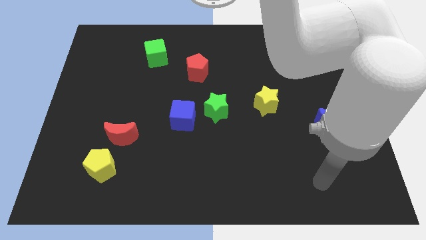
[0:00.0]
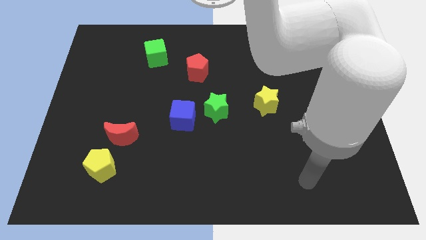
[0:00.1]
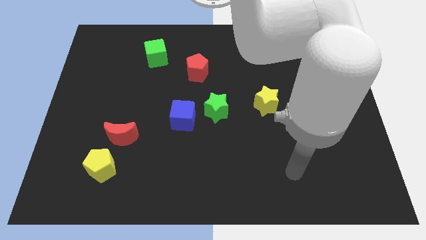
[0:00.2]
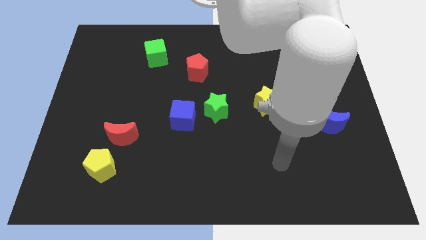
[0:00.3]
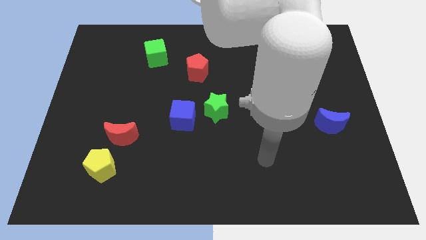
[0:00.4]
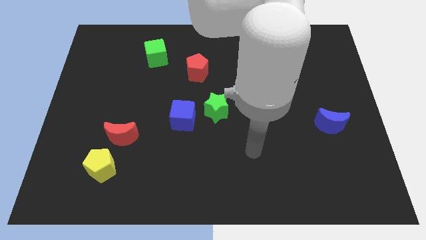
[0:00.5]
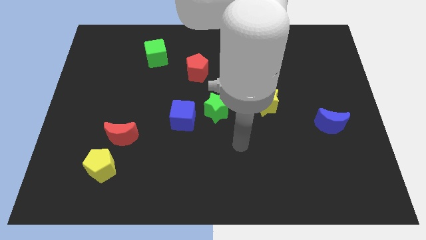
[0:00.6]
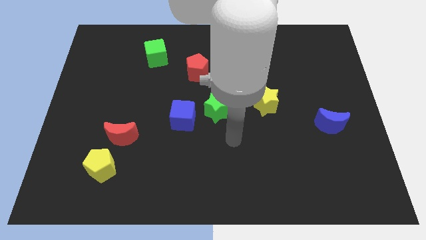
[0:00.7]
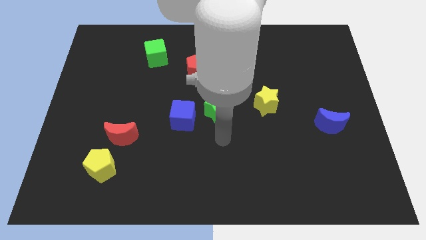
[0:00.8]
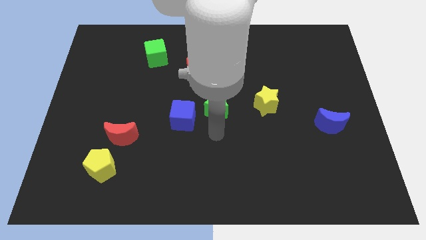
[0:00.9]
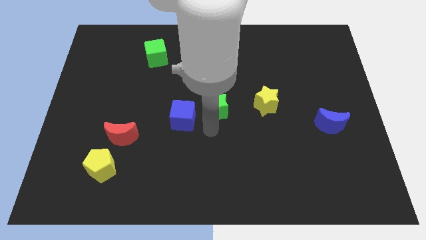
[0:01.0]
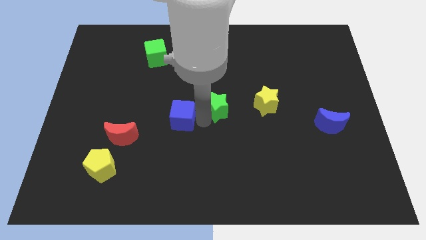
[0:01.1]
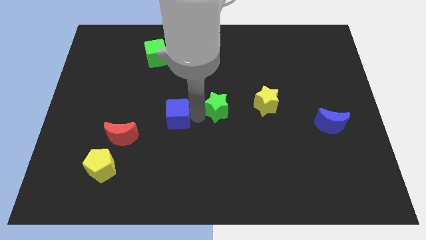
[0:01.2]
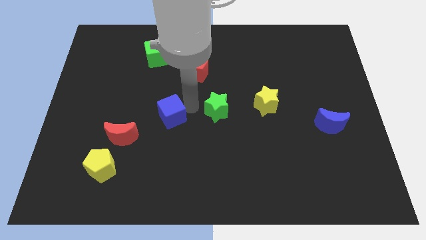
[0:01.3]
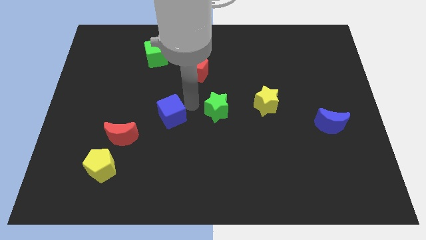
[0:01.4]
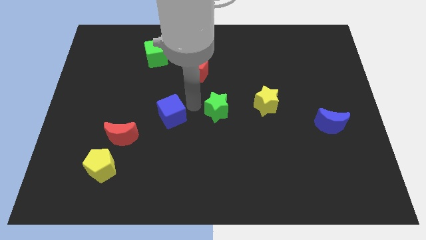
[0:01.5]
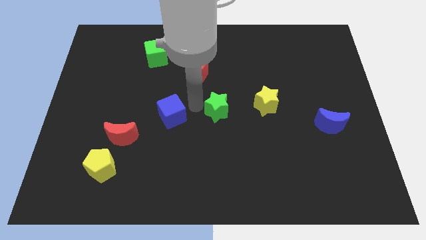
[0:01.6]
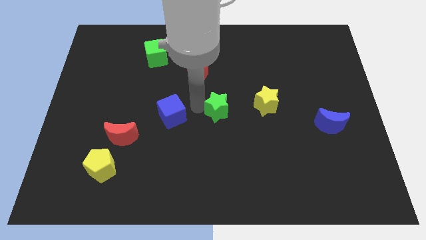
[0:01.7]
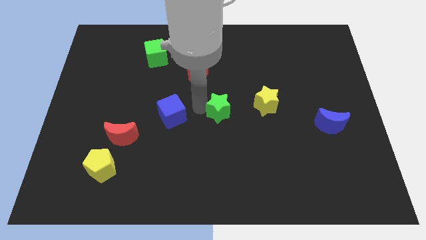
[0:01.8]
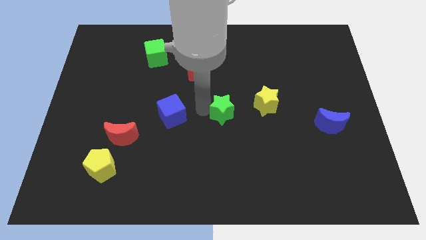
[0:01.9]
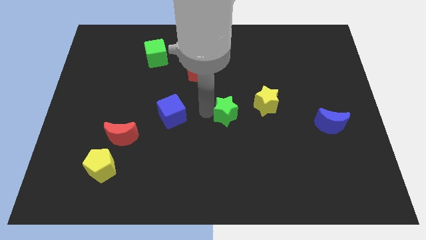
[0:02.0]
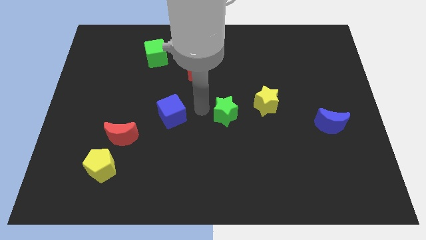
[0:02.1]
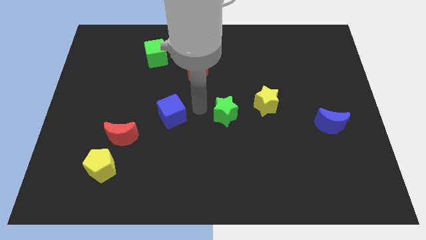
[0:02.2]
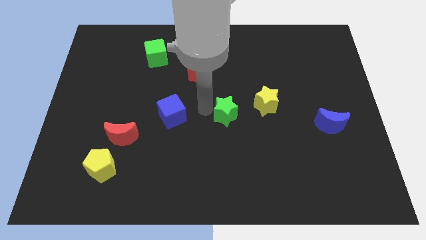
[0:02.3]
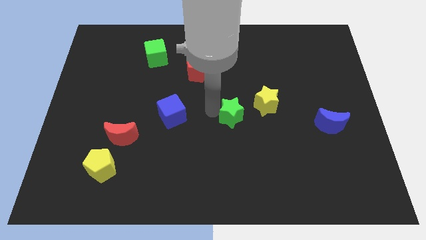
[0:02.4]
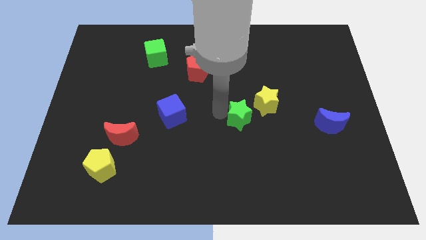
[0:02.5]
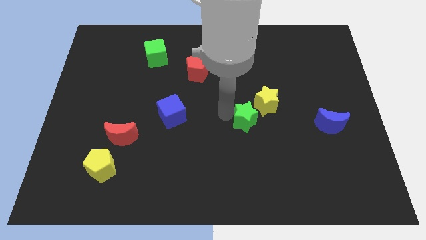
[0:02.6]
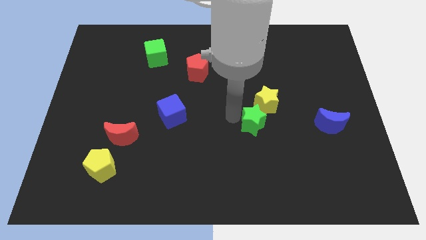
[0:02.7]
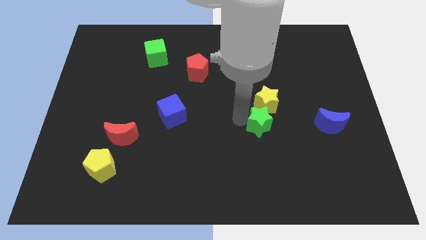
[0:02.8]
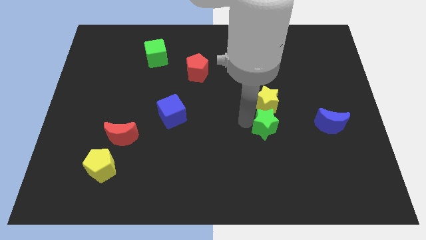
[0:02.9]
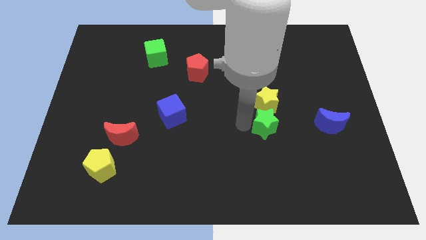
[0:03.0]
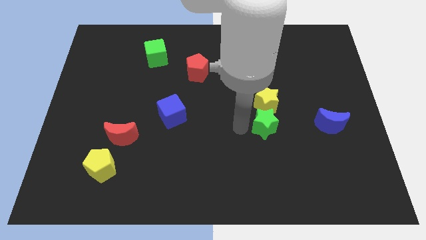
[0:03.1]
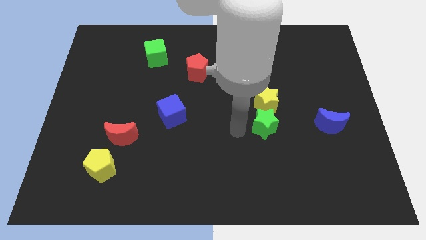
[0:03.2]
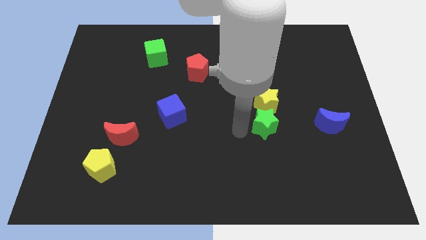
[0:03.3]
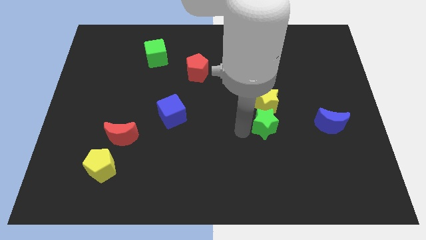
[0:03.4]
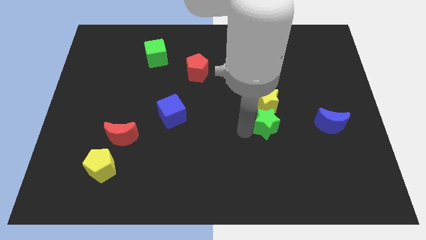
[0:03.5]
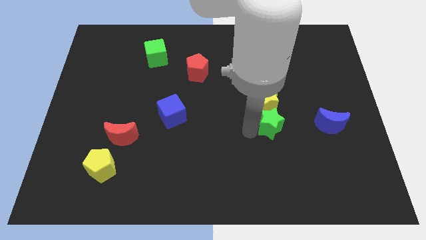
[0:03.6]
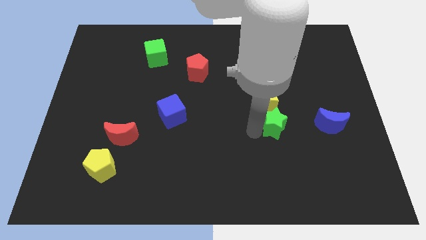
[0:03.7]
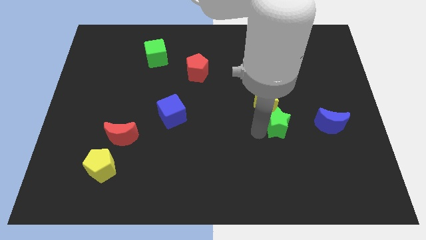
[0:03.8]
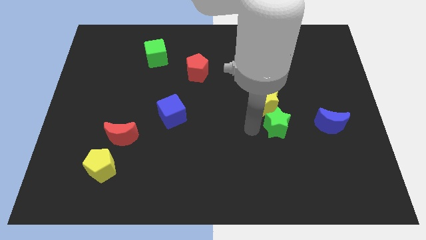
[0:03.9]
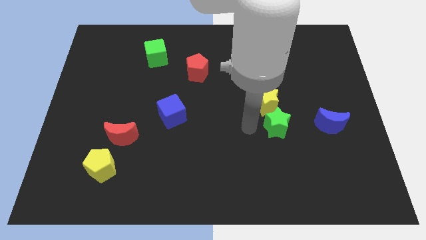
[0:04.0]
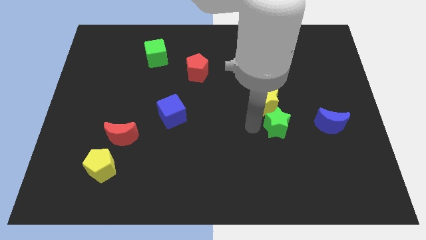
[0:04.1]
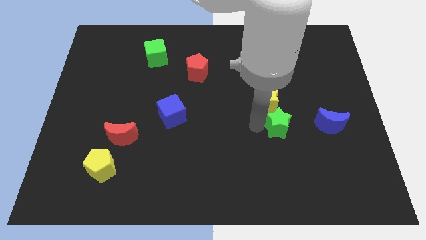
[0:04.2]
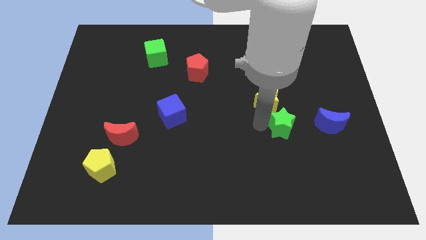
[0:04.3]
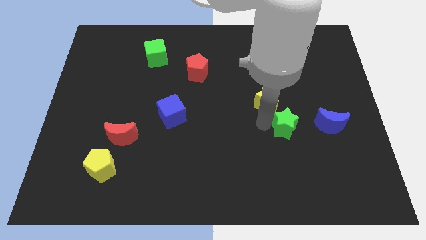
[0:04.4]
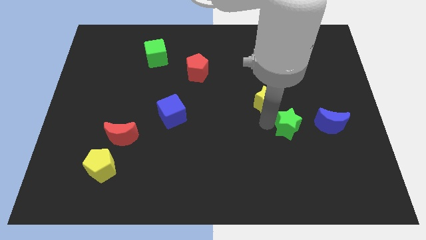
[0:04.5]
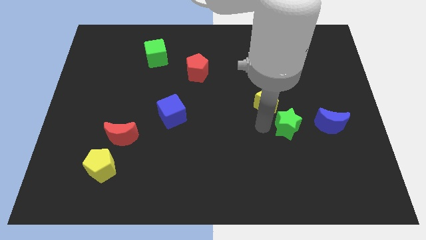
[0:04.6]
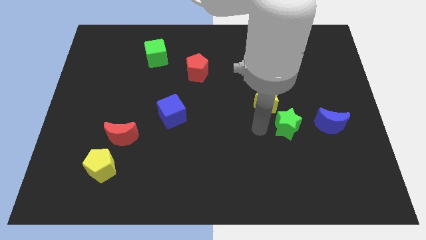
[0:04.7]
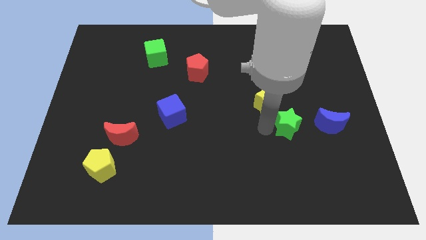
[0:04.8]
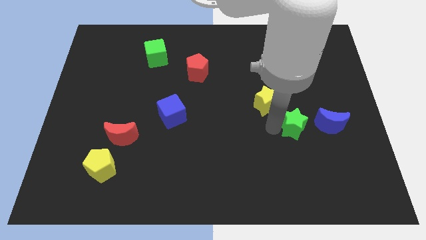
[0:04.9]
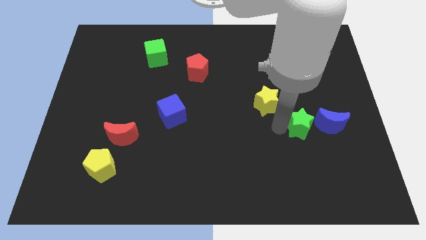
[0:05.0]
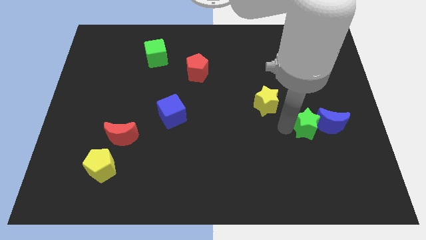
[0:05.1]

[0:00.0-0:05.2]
push the green star next to the blue moon

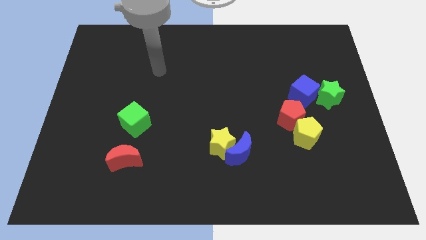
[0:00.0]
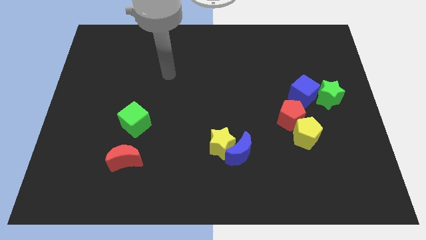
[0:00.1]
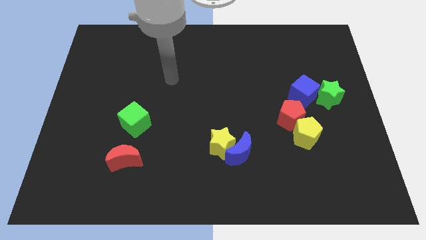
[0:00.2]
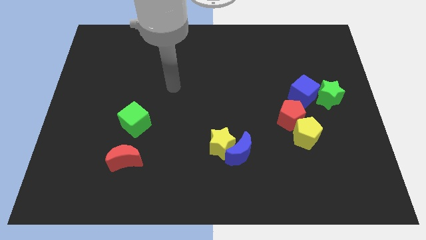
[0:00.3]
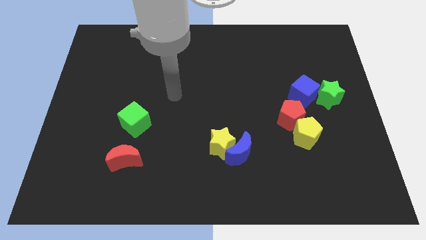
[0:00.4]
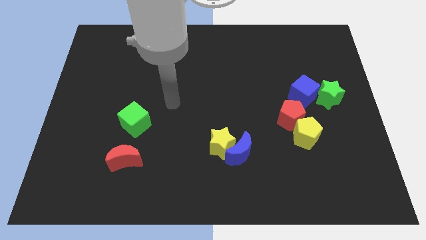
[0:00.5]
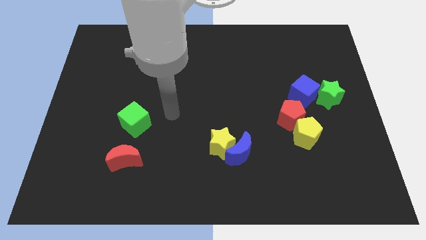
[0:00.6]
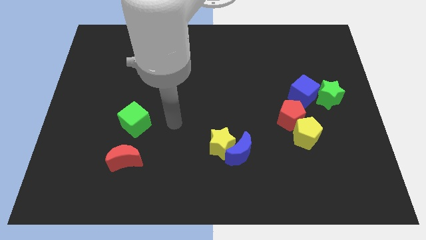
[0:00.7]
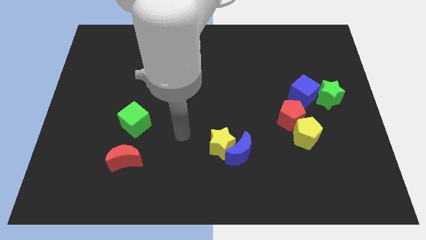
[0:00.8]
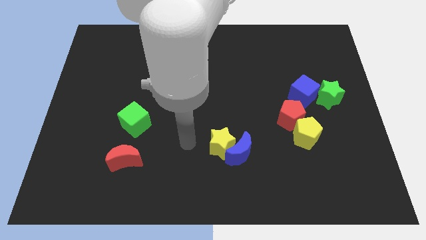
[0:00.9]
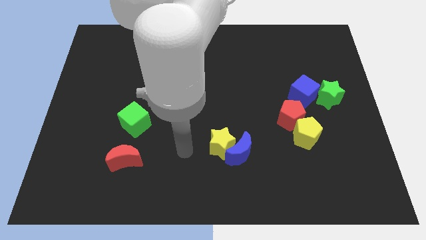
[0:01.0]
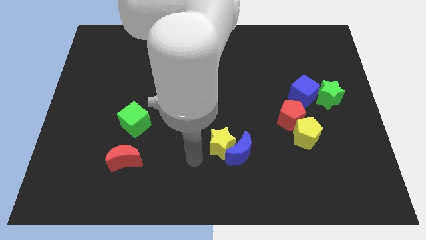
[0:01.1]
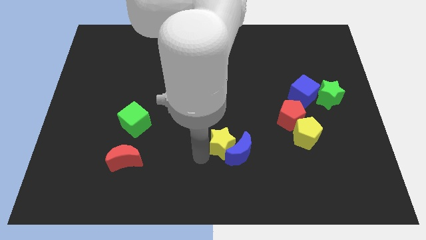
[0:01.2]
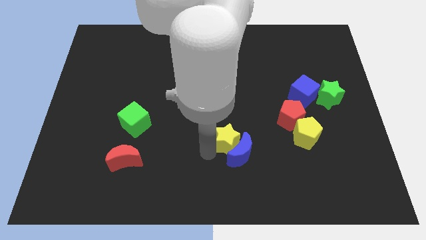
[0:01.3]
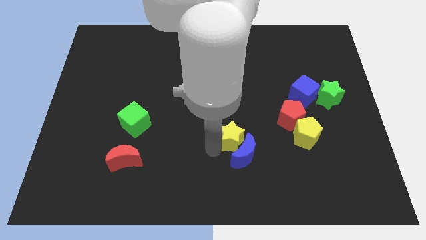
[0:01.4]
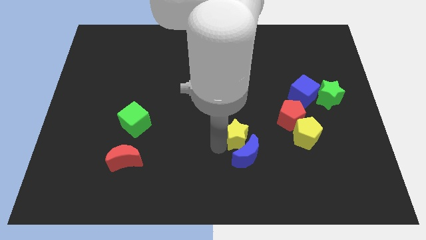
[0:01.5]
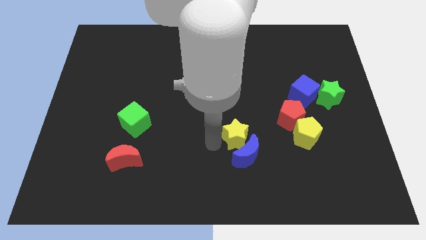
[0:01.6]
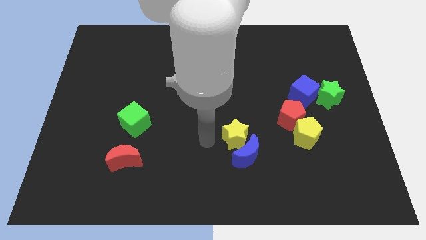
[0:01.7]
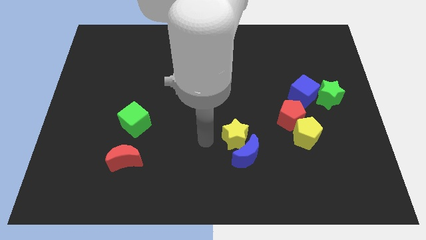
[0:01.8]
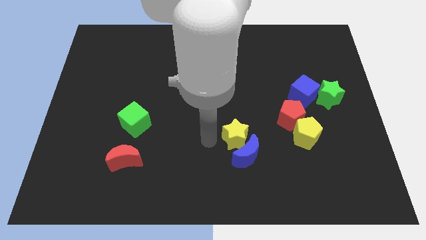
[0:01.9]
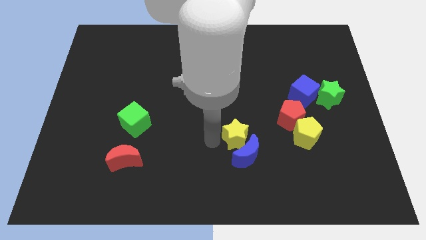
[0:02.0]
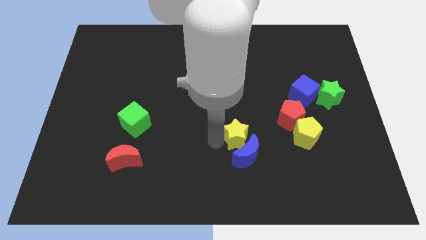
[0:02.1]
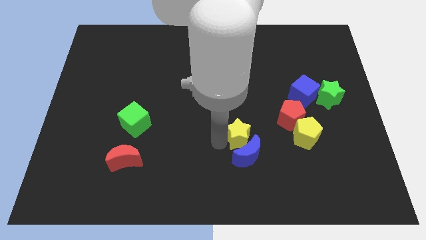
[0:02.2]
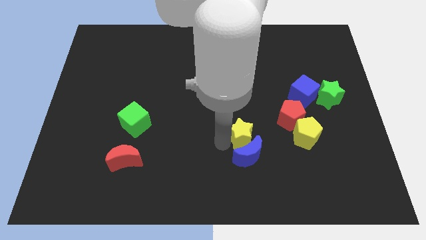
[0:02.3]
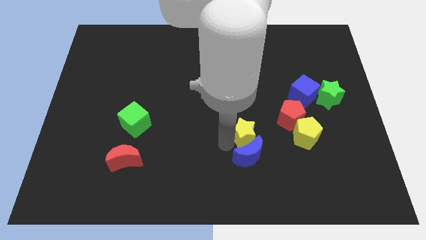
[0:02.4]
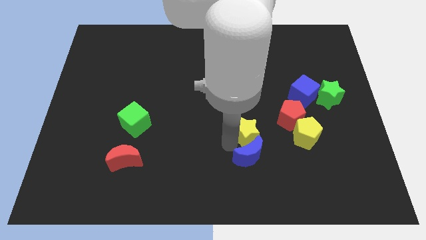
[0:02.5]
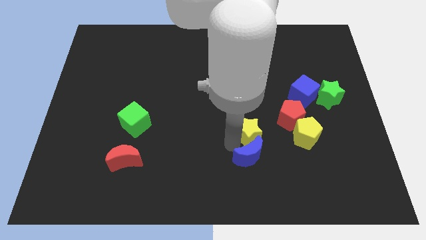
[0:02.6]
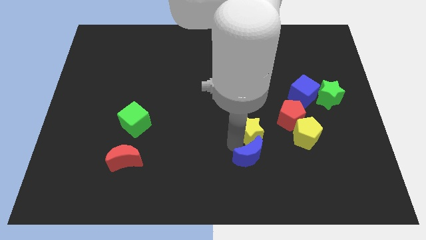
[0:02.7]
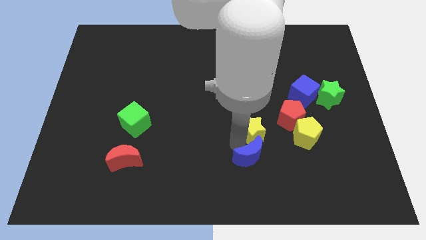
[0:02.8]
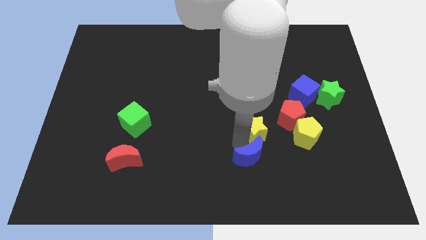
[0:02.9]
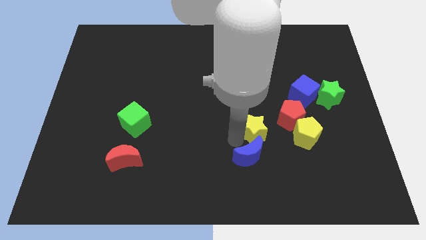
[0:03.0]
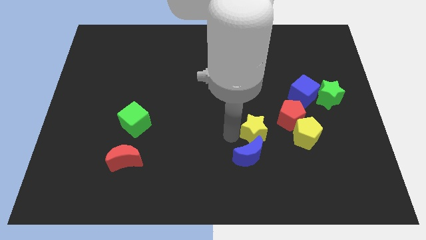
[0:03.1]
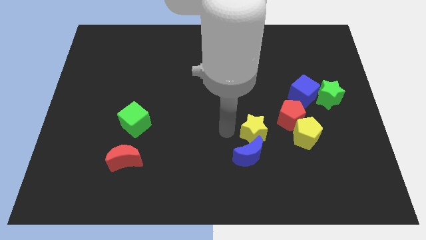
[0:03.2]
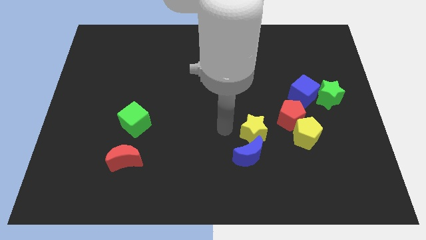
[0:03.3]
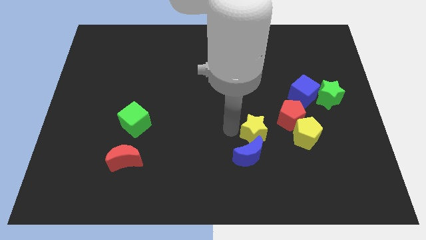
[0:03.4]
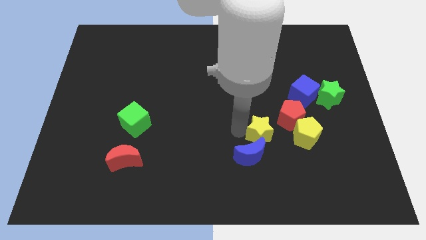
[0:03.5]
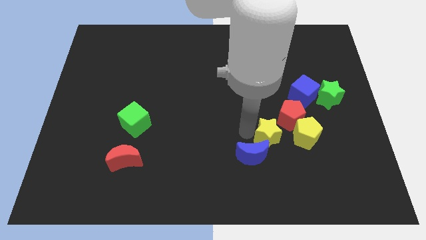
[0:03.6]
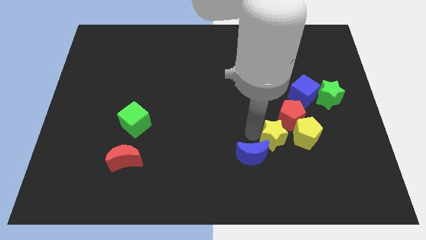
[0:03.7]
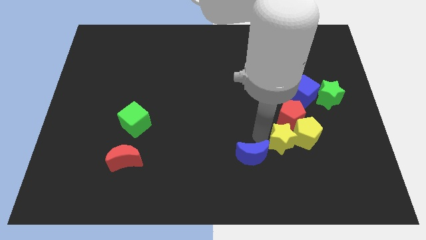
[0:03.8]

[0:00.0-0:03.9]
slide the yellow star close to the yellow pentagon
